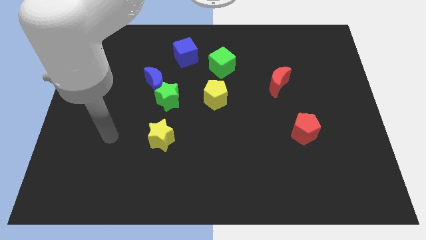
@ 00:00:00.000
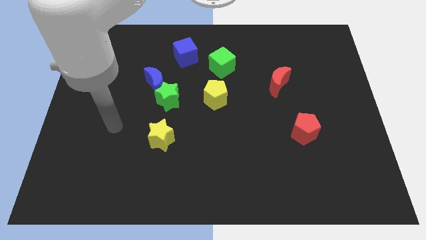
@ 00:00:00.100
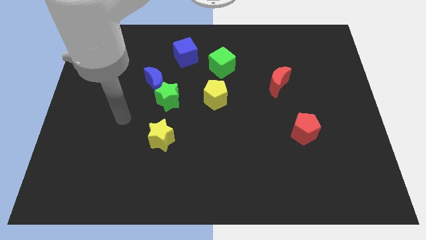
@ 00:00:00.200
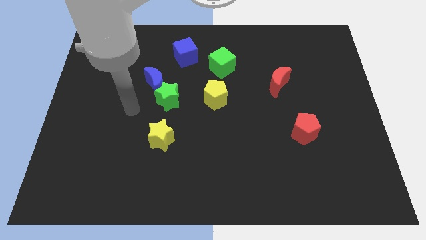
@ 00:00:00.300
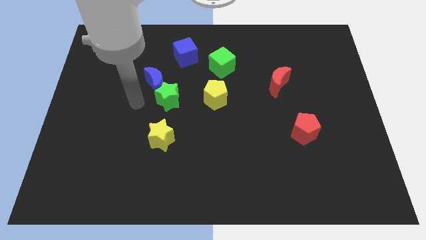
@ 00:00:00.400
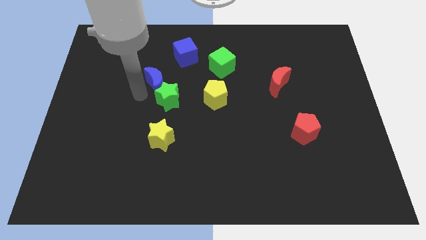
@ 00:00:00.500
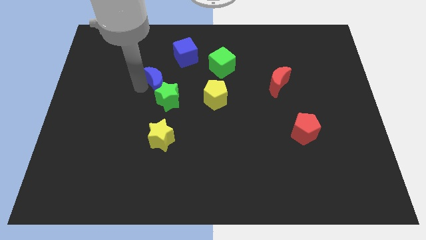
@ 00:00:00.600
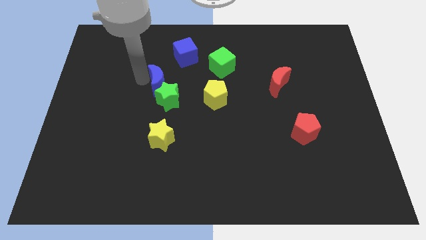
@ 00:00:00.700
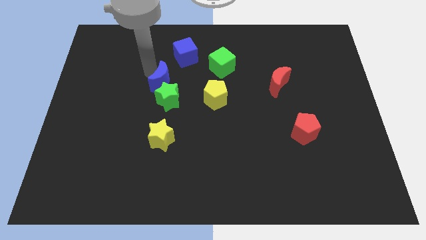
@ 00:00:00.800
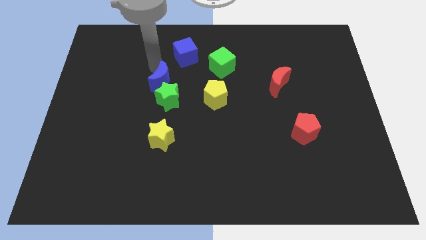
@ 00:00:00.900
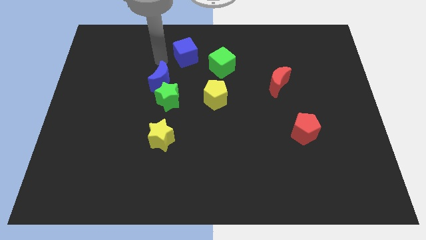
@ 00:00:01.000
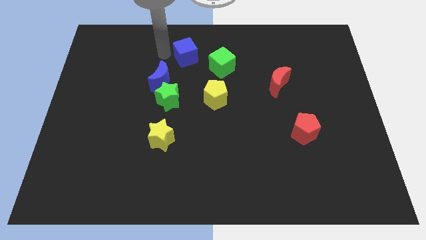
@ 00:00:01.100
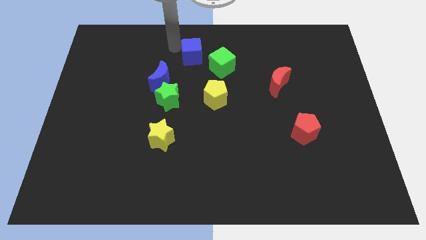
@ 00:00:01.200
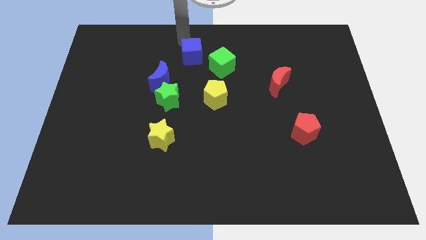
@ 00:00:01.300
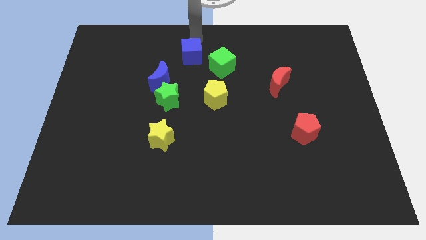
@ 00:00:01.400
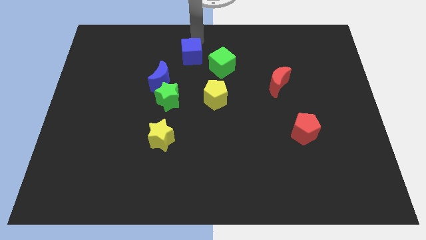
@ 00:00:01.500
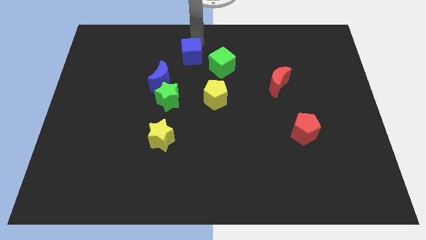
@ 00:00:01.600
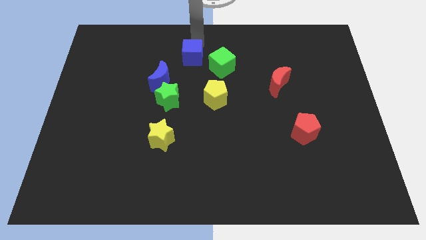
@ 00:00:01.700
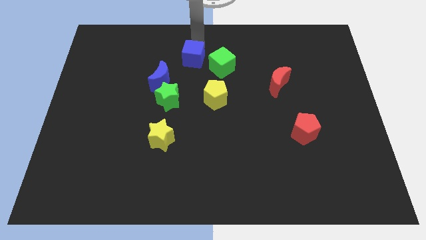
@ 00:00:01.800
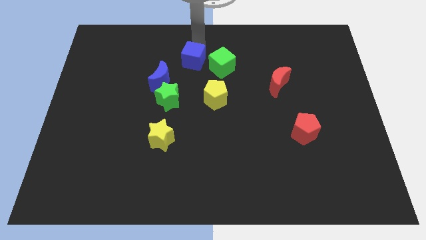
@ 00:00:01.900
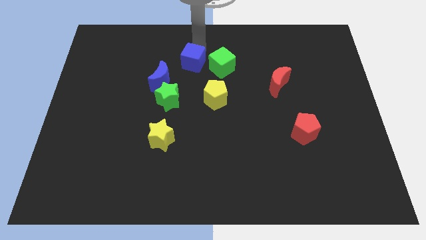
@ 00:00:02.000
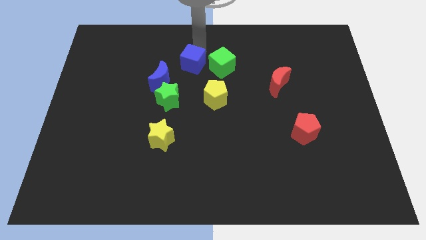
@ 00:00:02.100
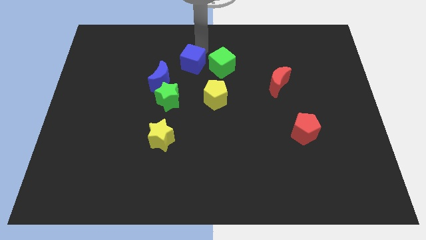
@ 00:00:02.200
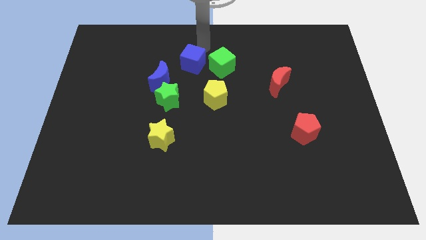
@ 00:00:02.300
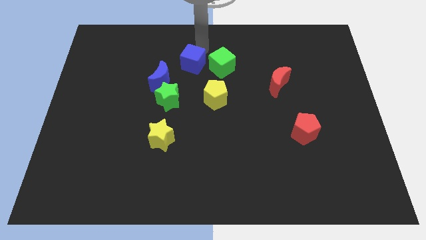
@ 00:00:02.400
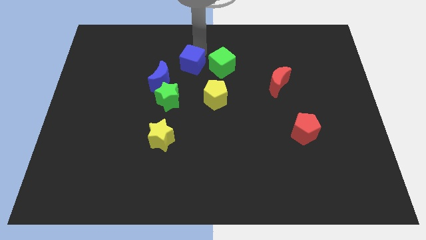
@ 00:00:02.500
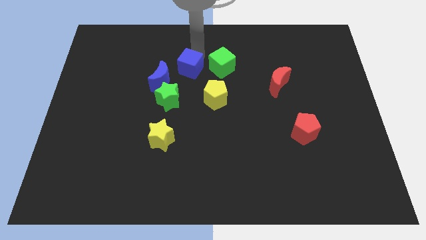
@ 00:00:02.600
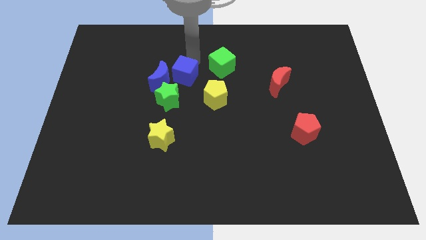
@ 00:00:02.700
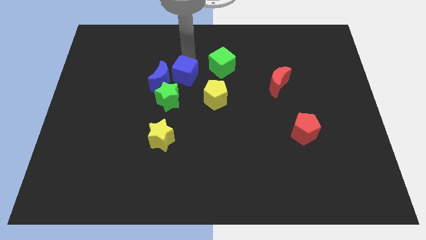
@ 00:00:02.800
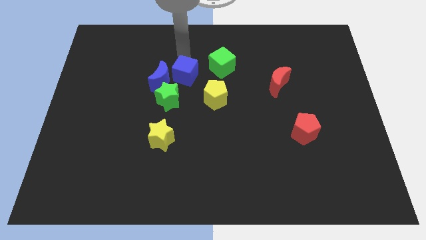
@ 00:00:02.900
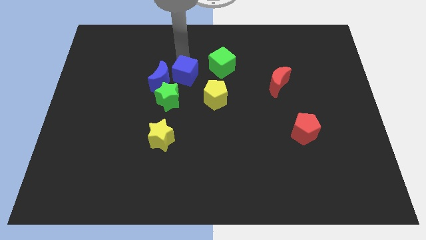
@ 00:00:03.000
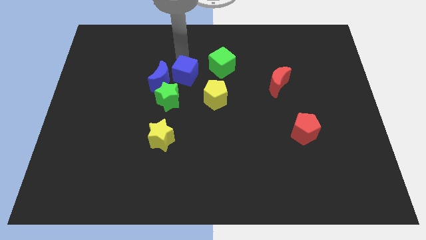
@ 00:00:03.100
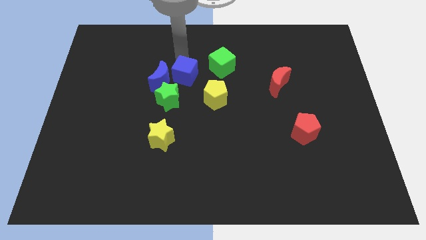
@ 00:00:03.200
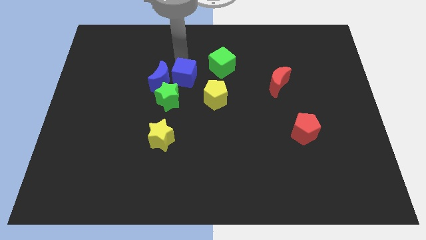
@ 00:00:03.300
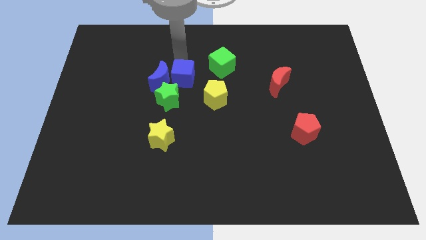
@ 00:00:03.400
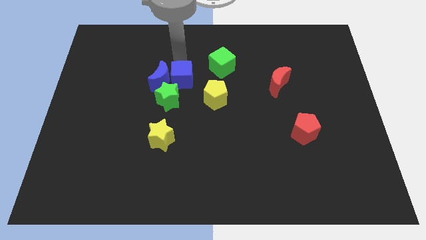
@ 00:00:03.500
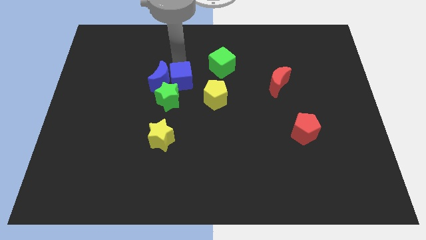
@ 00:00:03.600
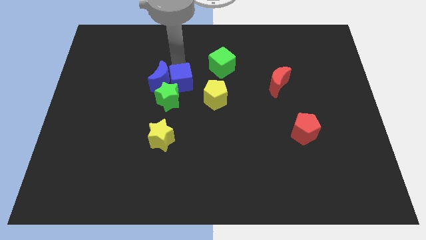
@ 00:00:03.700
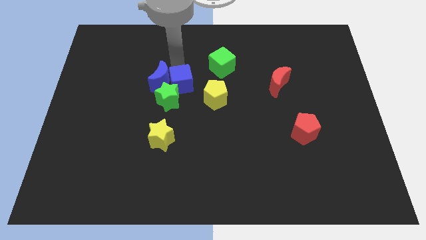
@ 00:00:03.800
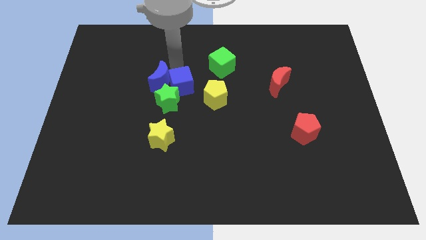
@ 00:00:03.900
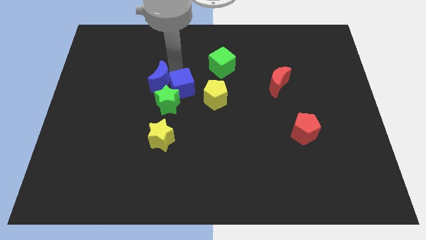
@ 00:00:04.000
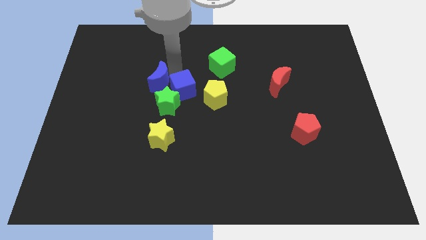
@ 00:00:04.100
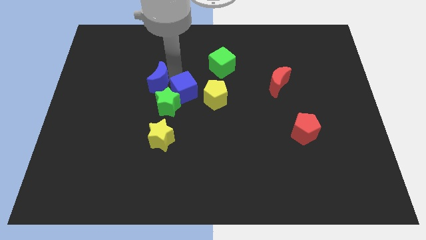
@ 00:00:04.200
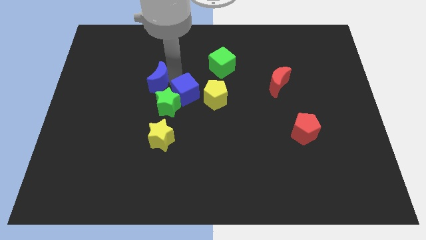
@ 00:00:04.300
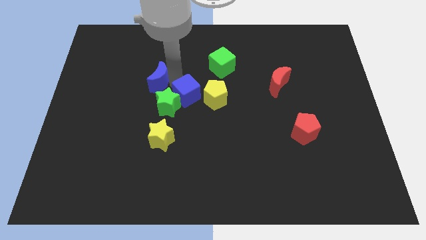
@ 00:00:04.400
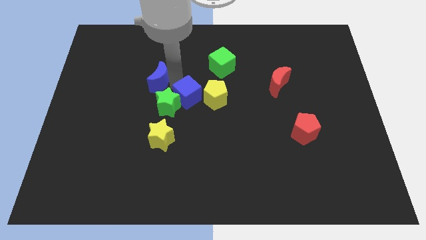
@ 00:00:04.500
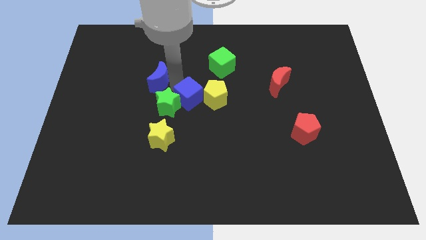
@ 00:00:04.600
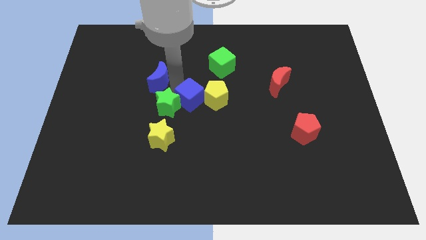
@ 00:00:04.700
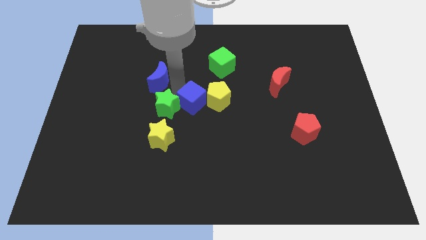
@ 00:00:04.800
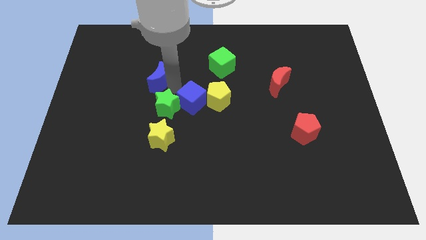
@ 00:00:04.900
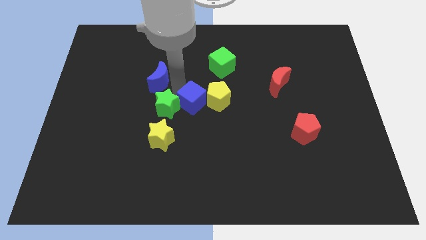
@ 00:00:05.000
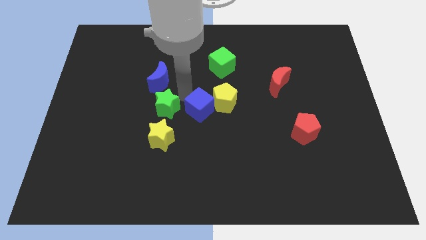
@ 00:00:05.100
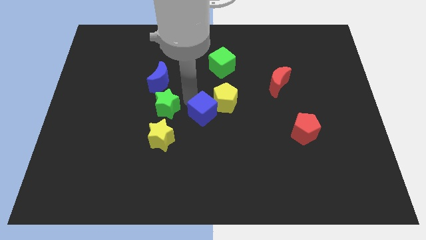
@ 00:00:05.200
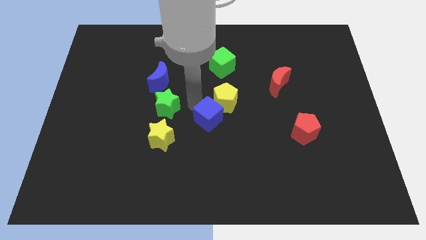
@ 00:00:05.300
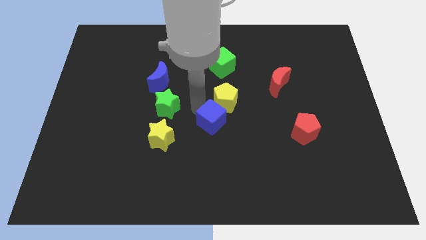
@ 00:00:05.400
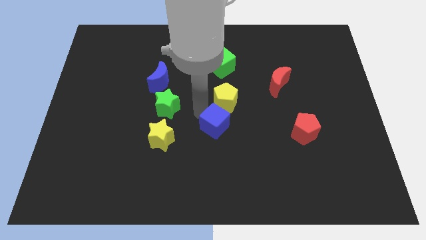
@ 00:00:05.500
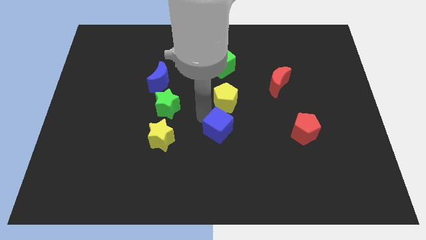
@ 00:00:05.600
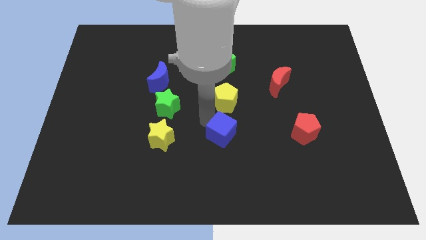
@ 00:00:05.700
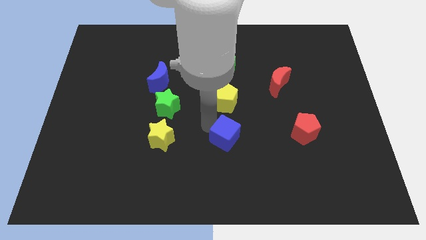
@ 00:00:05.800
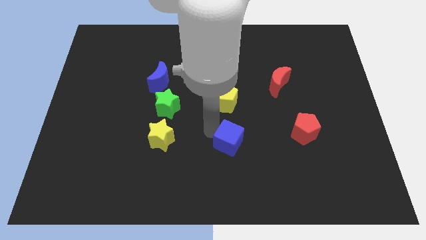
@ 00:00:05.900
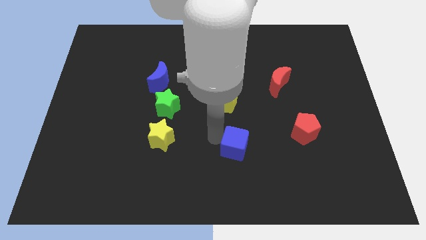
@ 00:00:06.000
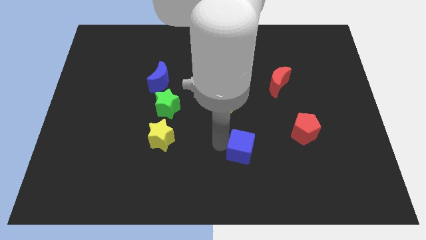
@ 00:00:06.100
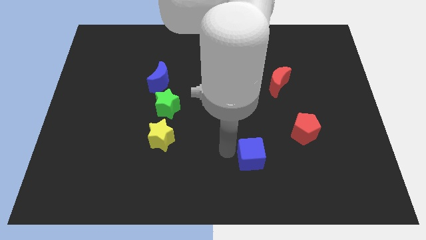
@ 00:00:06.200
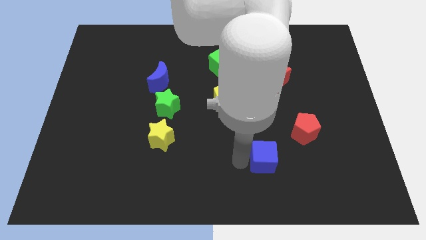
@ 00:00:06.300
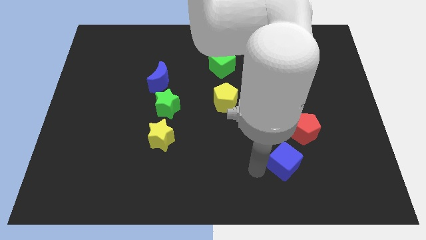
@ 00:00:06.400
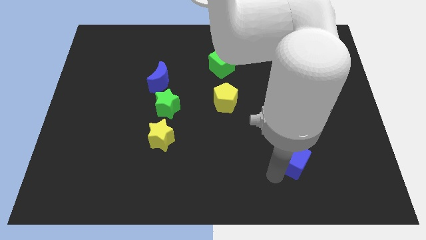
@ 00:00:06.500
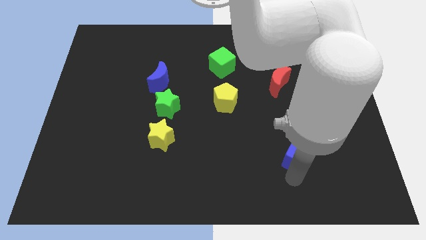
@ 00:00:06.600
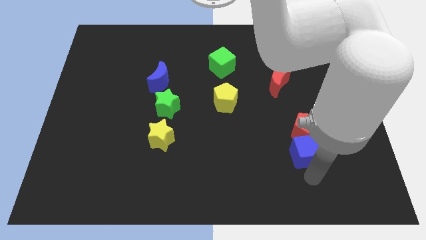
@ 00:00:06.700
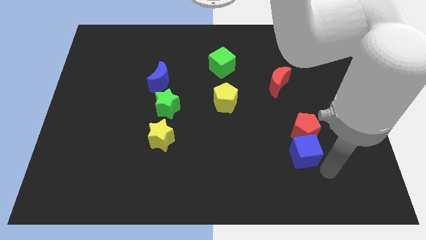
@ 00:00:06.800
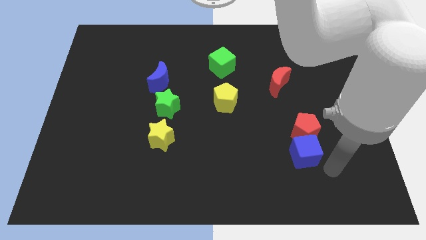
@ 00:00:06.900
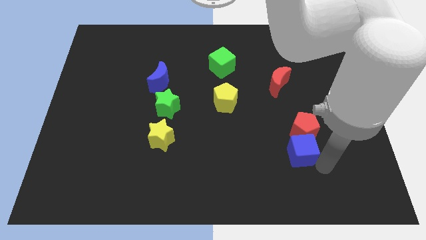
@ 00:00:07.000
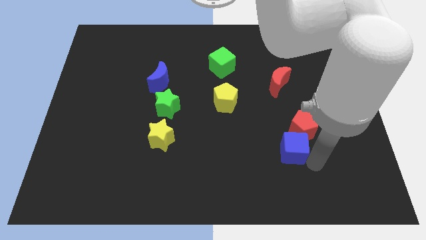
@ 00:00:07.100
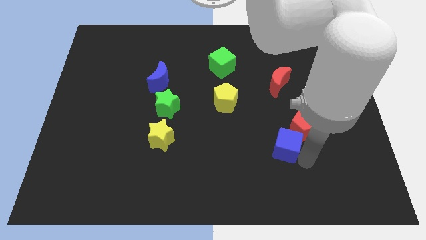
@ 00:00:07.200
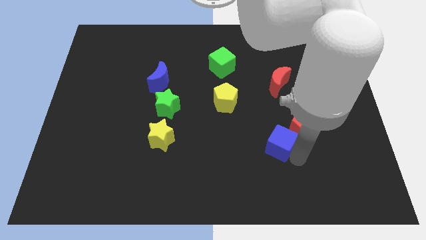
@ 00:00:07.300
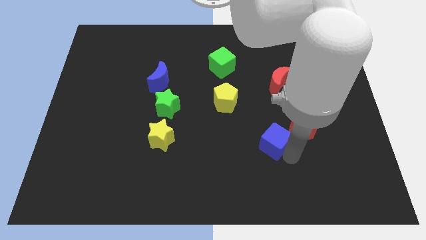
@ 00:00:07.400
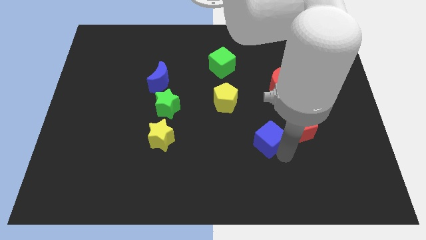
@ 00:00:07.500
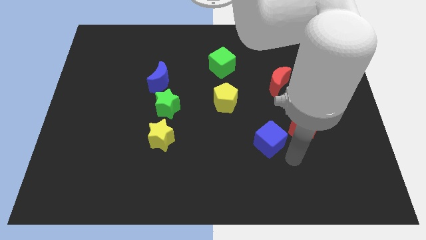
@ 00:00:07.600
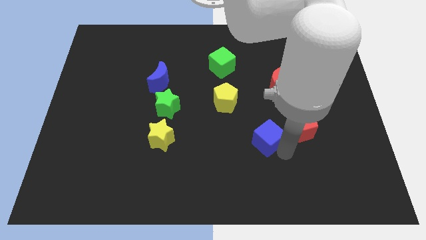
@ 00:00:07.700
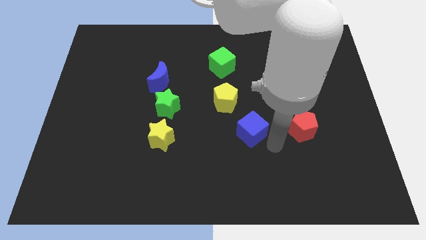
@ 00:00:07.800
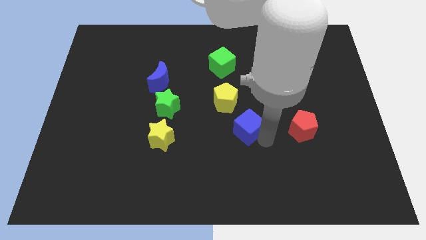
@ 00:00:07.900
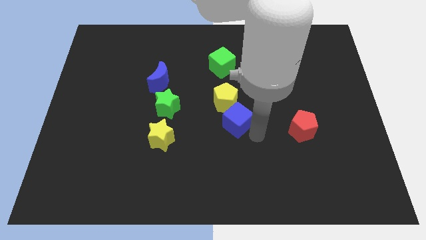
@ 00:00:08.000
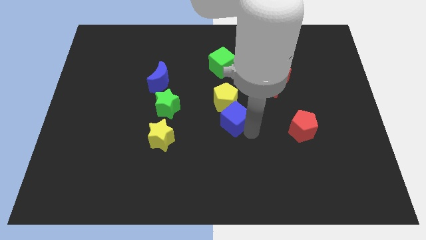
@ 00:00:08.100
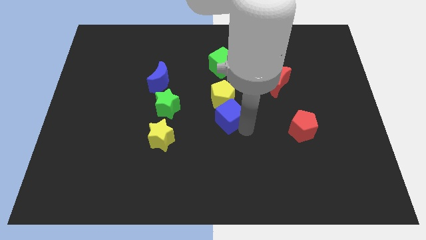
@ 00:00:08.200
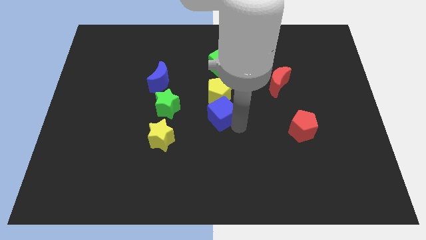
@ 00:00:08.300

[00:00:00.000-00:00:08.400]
move the blue cube to the bottom of the green cube
